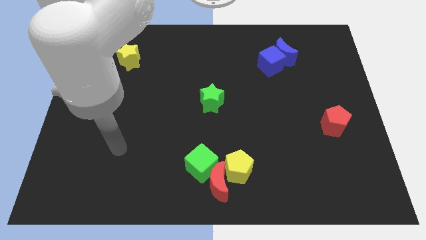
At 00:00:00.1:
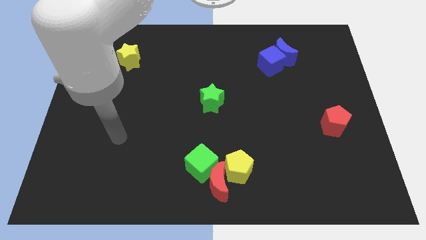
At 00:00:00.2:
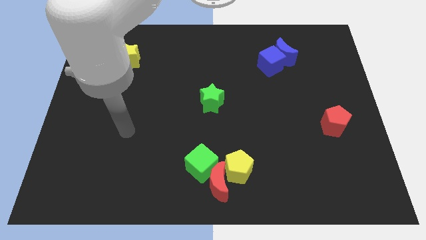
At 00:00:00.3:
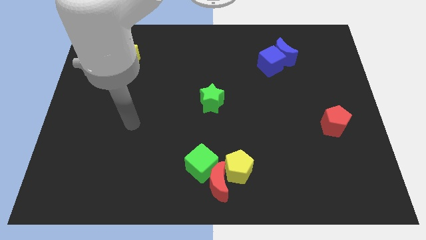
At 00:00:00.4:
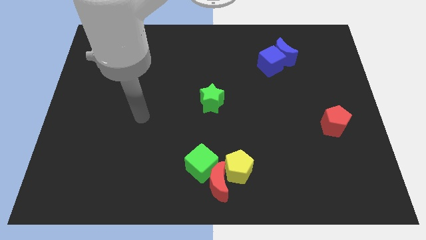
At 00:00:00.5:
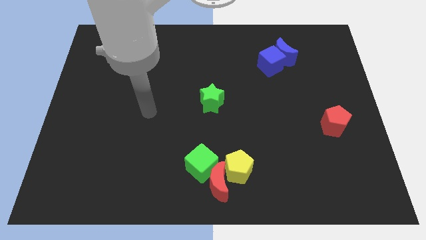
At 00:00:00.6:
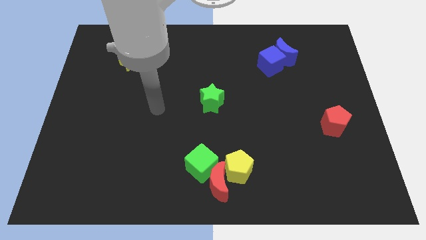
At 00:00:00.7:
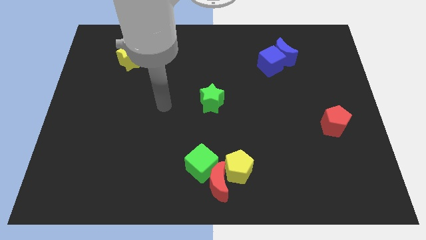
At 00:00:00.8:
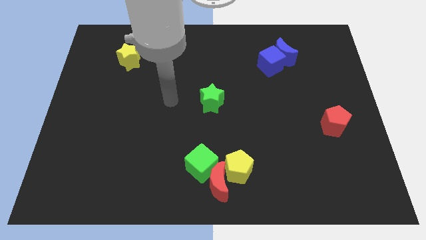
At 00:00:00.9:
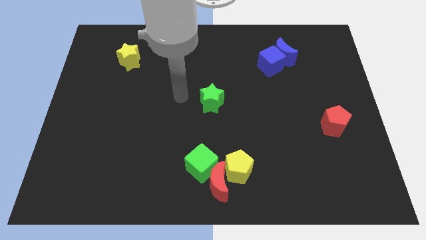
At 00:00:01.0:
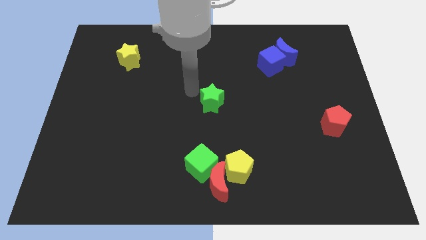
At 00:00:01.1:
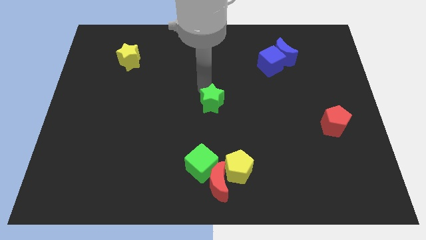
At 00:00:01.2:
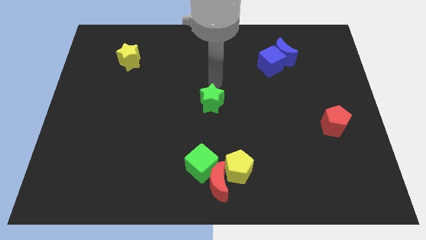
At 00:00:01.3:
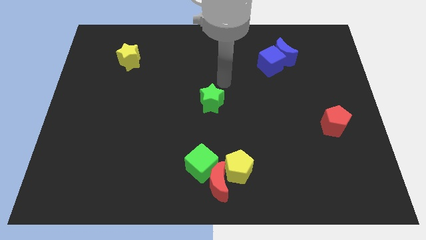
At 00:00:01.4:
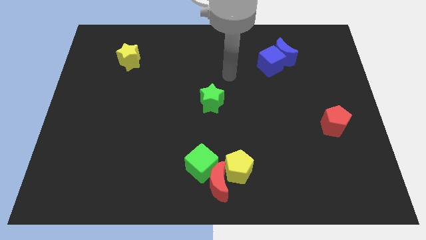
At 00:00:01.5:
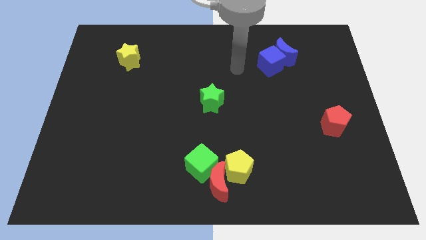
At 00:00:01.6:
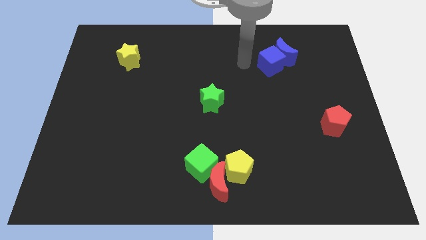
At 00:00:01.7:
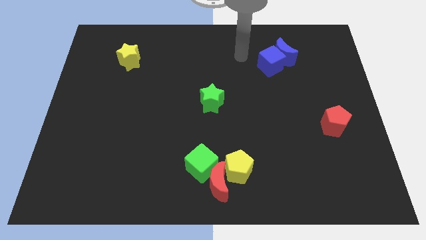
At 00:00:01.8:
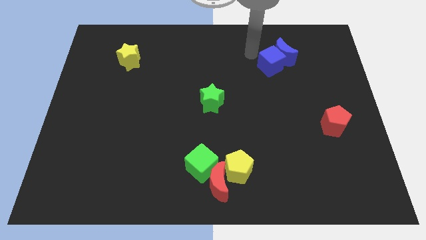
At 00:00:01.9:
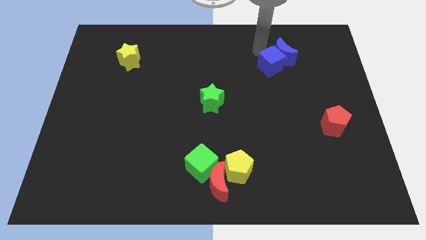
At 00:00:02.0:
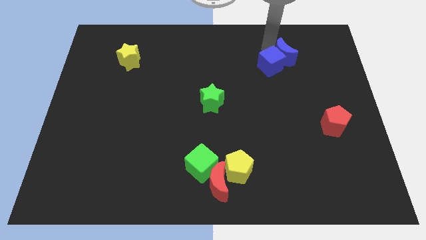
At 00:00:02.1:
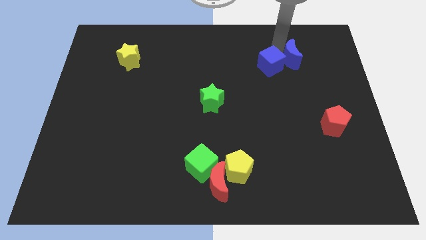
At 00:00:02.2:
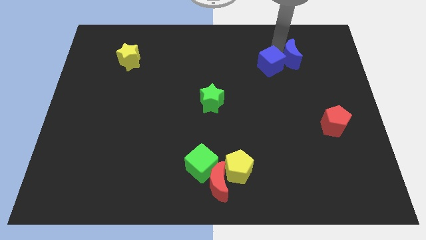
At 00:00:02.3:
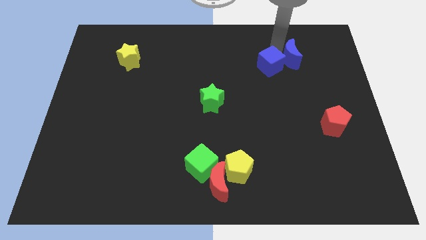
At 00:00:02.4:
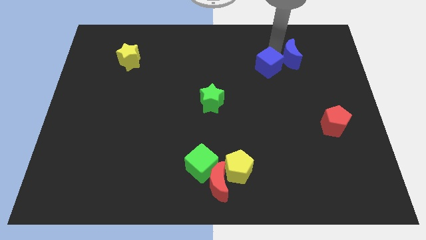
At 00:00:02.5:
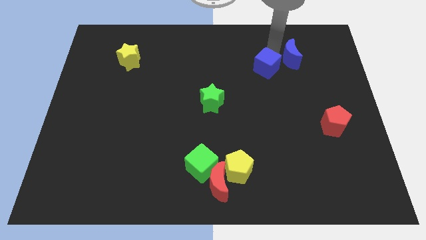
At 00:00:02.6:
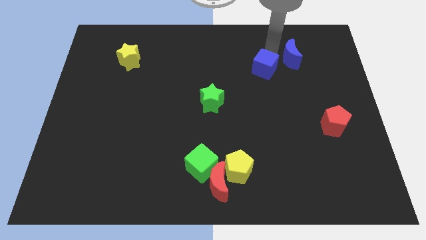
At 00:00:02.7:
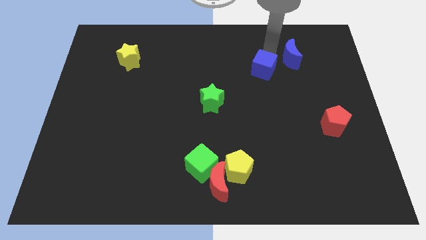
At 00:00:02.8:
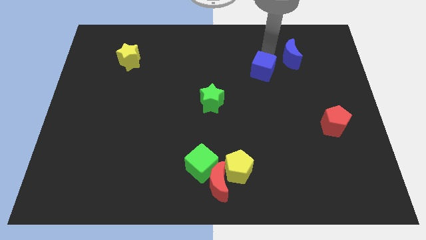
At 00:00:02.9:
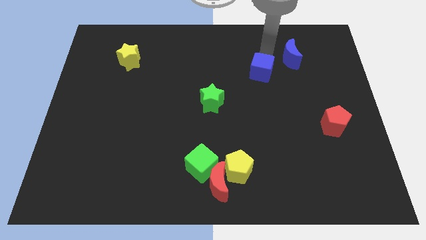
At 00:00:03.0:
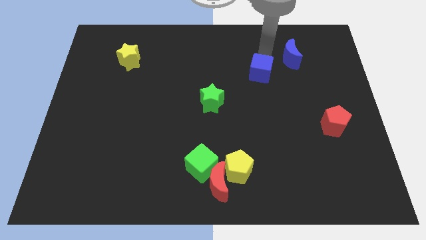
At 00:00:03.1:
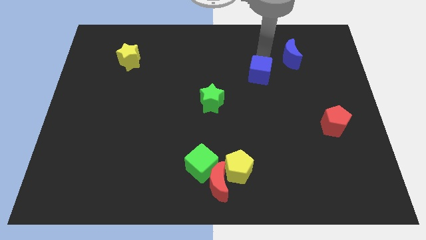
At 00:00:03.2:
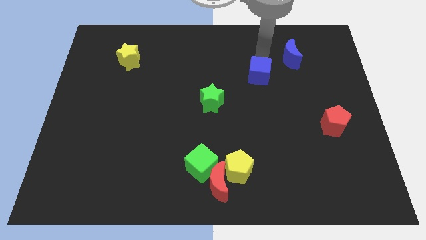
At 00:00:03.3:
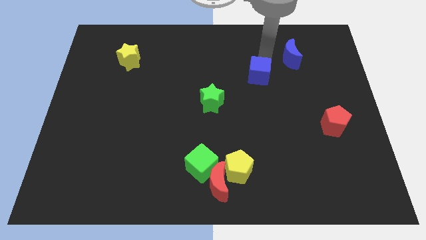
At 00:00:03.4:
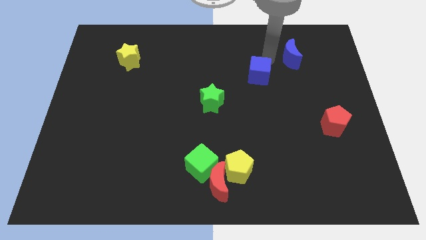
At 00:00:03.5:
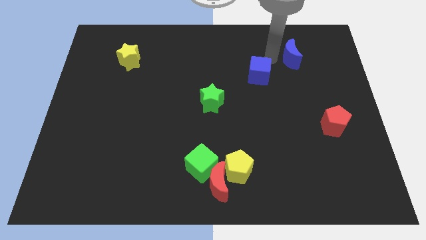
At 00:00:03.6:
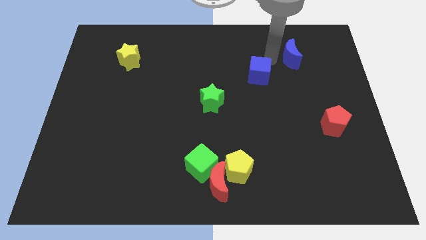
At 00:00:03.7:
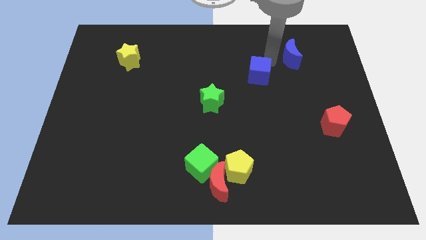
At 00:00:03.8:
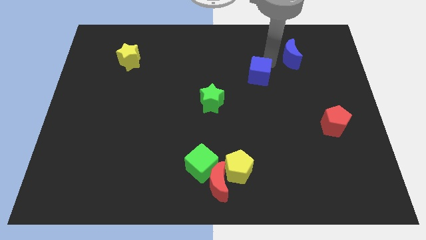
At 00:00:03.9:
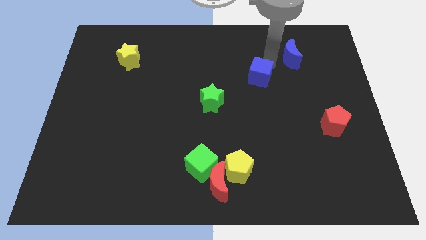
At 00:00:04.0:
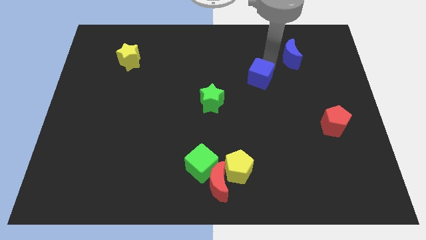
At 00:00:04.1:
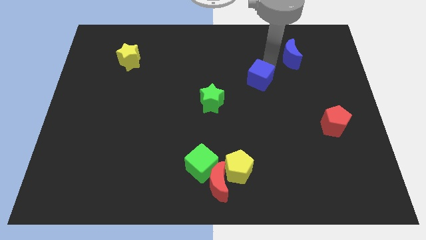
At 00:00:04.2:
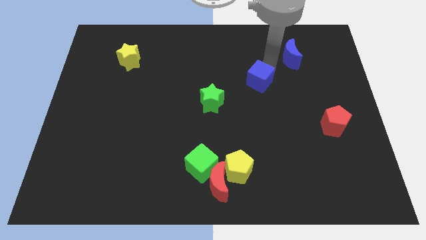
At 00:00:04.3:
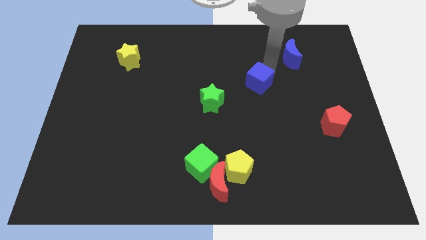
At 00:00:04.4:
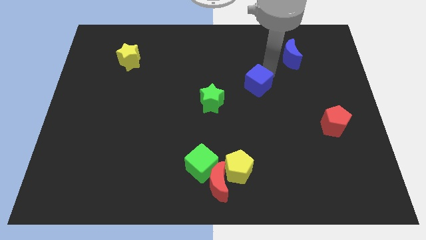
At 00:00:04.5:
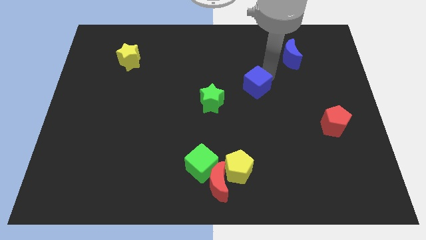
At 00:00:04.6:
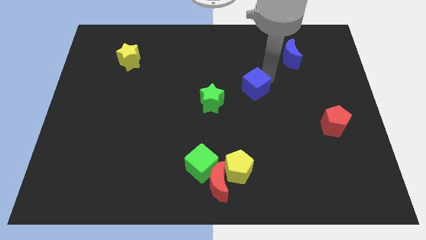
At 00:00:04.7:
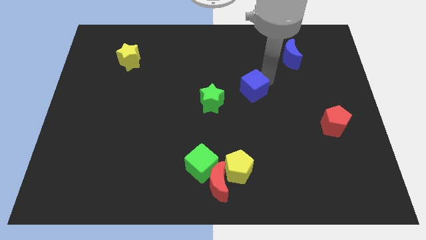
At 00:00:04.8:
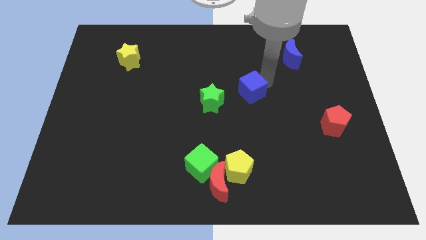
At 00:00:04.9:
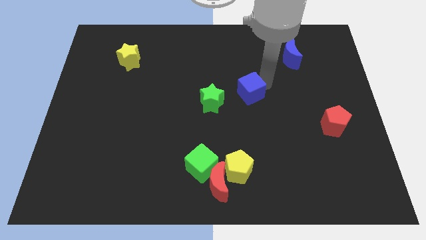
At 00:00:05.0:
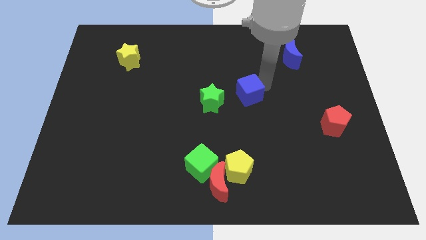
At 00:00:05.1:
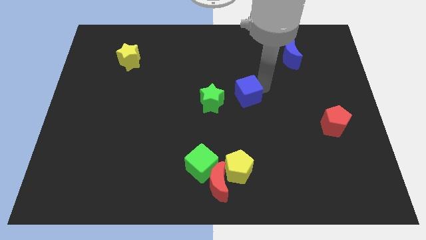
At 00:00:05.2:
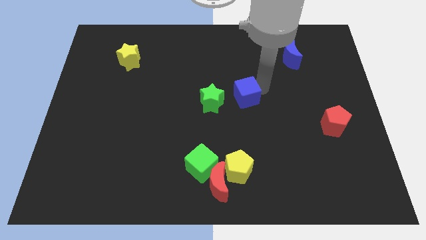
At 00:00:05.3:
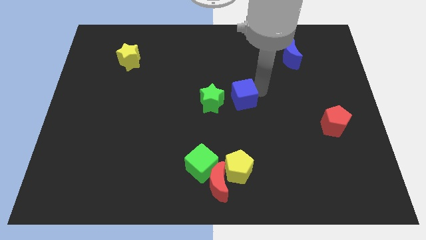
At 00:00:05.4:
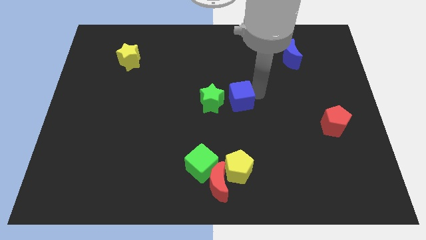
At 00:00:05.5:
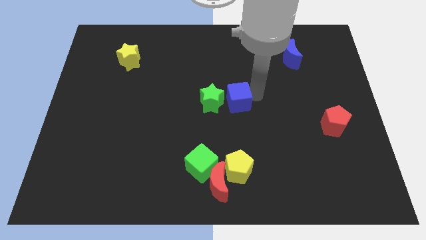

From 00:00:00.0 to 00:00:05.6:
move the blue cube next to the green star

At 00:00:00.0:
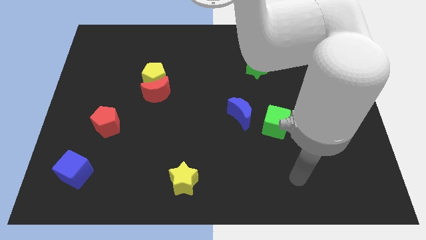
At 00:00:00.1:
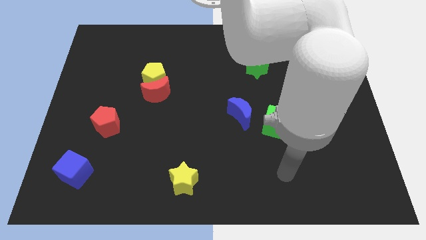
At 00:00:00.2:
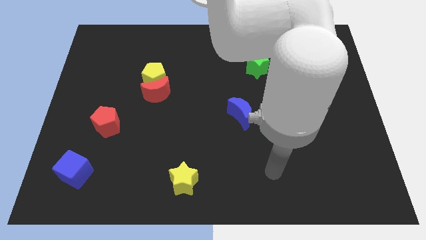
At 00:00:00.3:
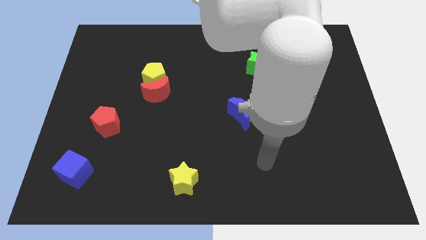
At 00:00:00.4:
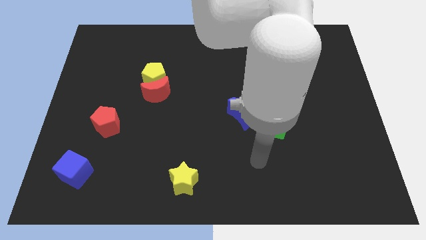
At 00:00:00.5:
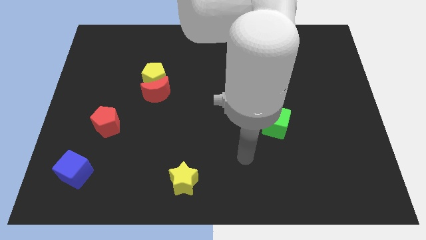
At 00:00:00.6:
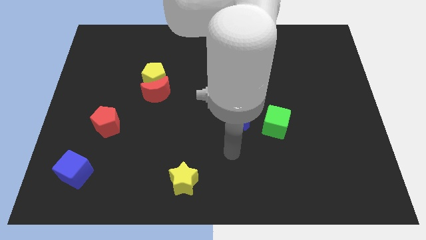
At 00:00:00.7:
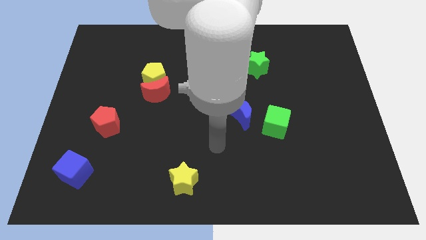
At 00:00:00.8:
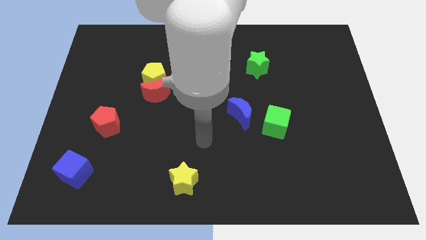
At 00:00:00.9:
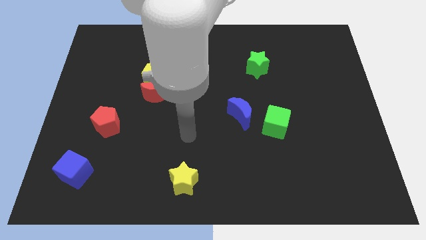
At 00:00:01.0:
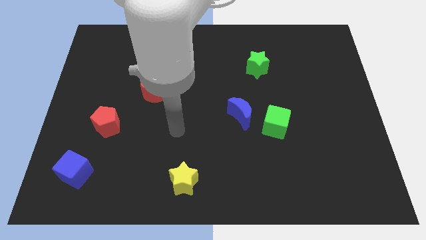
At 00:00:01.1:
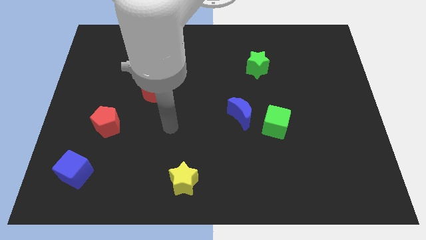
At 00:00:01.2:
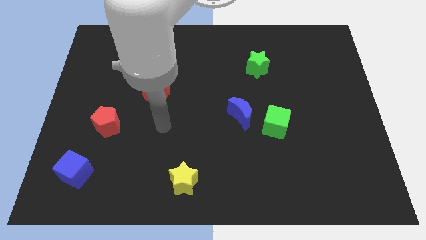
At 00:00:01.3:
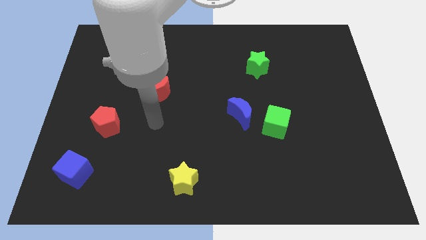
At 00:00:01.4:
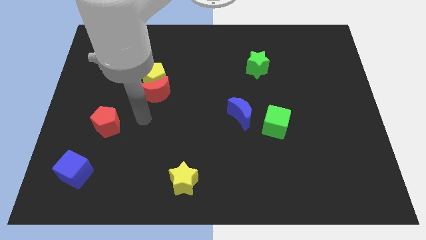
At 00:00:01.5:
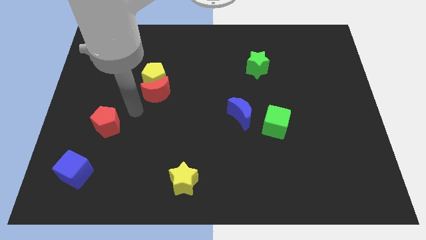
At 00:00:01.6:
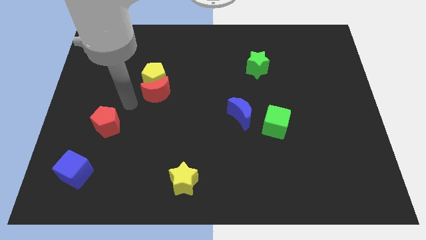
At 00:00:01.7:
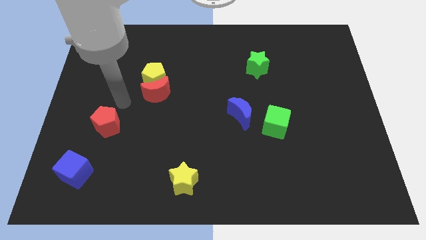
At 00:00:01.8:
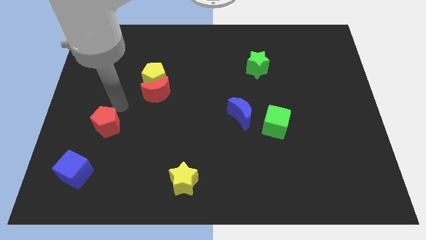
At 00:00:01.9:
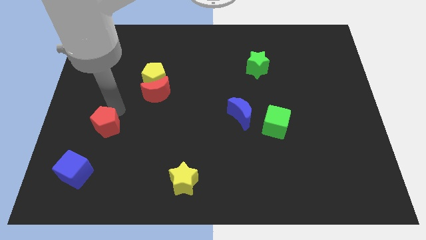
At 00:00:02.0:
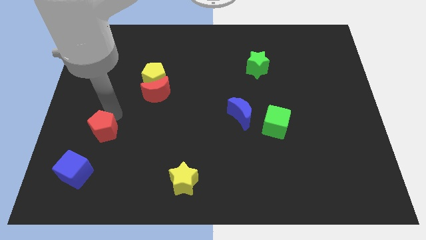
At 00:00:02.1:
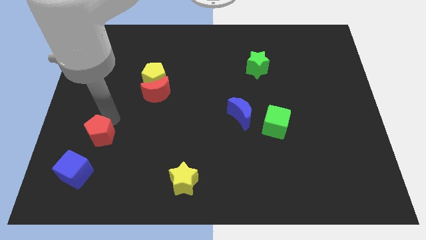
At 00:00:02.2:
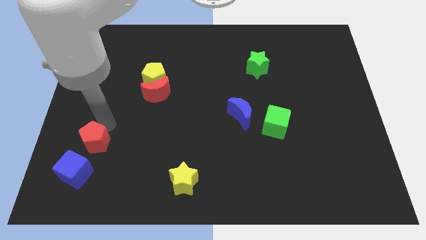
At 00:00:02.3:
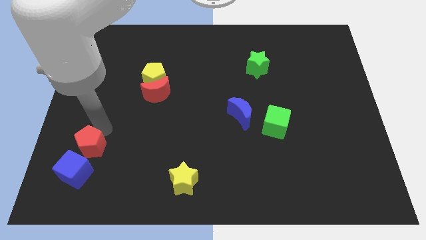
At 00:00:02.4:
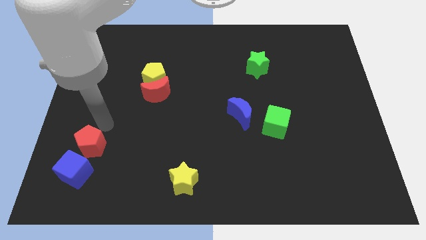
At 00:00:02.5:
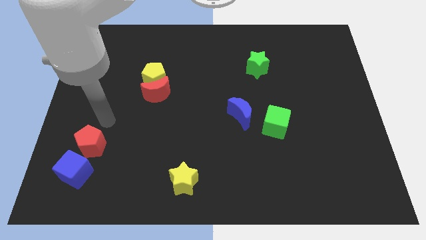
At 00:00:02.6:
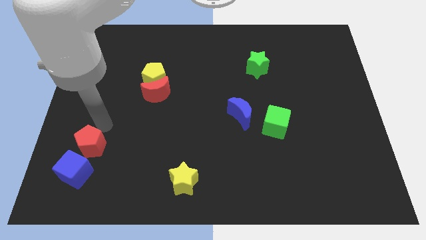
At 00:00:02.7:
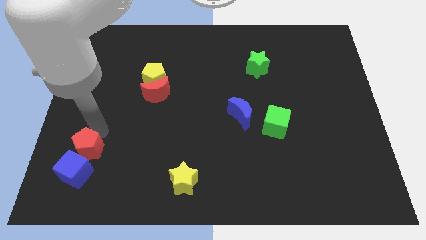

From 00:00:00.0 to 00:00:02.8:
put the red pentagon to the blue cube
